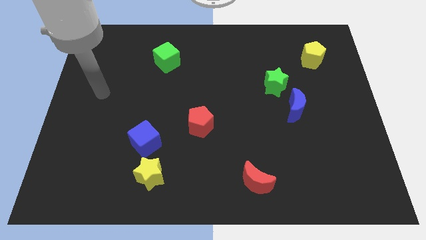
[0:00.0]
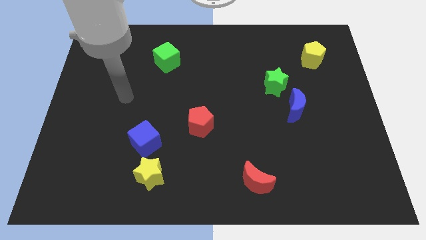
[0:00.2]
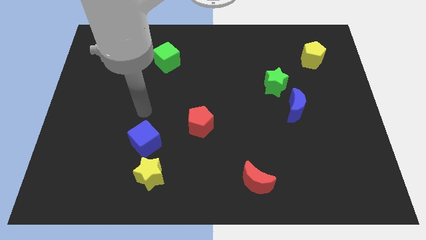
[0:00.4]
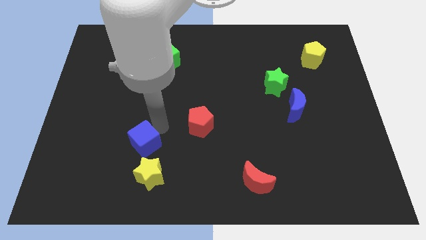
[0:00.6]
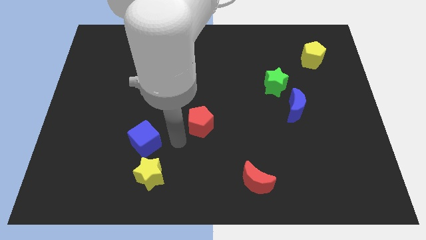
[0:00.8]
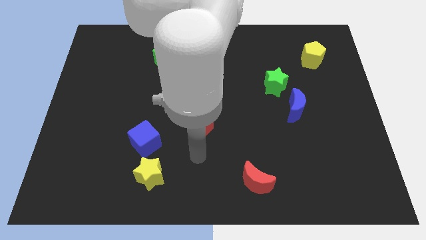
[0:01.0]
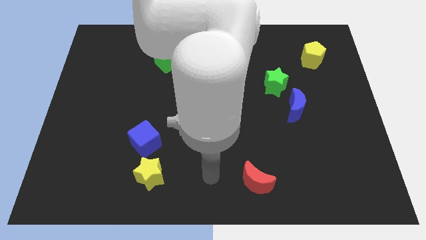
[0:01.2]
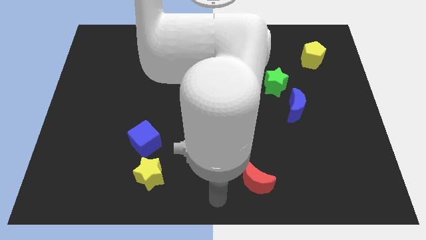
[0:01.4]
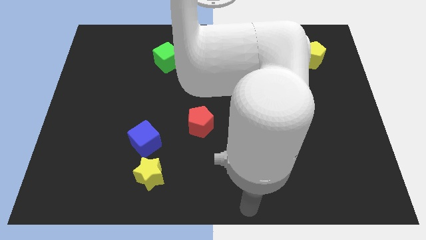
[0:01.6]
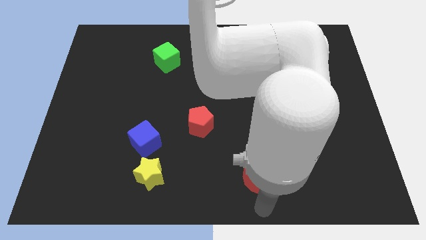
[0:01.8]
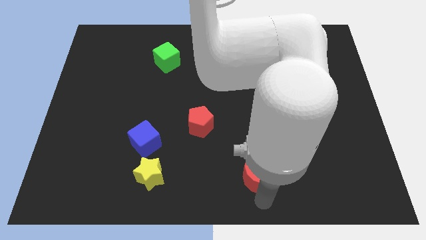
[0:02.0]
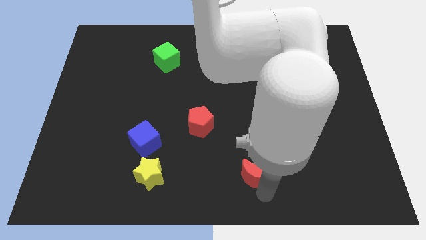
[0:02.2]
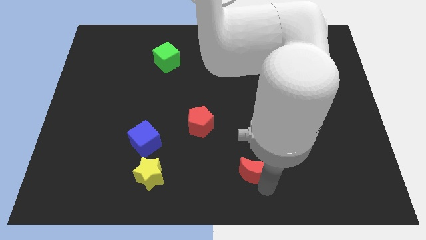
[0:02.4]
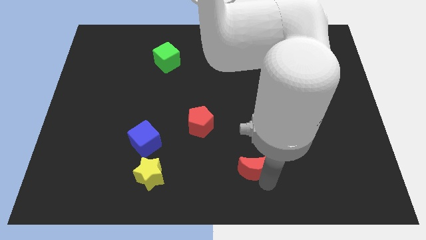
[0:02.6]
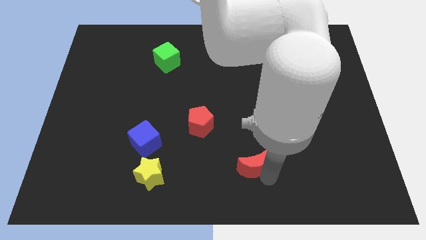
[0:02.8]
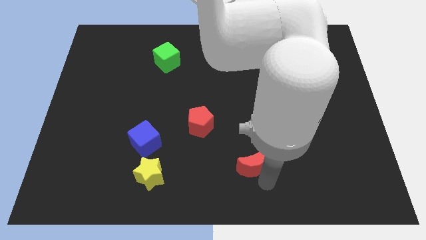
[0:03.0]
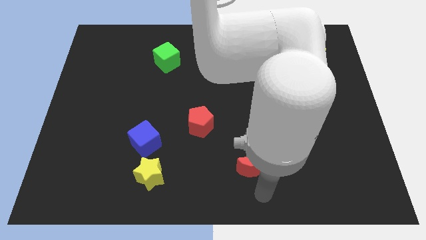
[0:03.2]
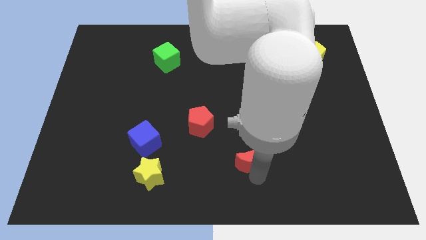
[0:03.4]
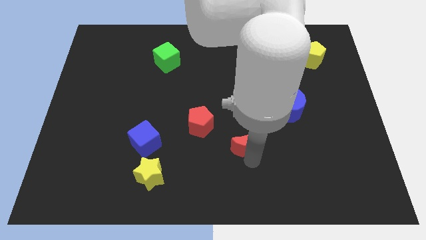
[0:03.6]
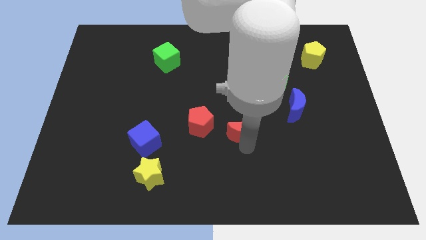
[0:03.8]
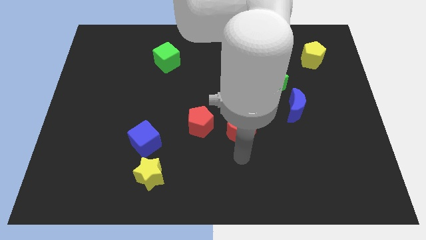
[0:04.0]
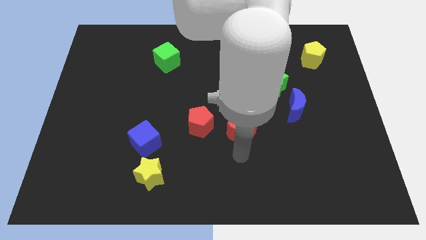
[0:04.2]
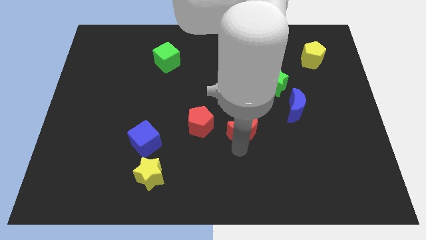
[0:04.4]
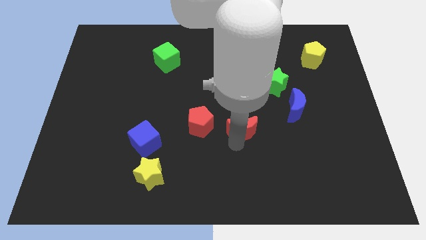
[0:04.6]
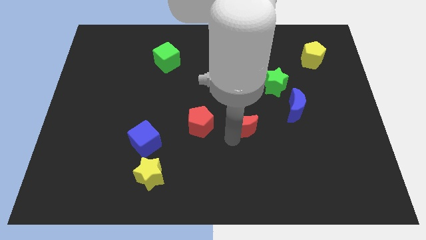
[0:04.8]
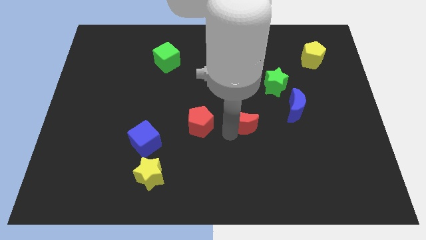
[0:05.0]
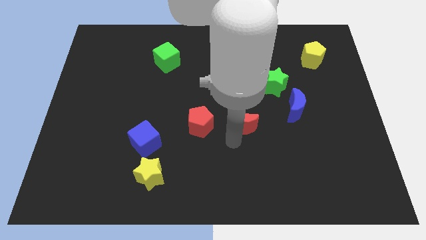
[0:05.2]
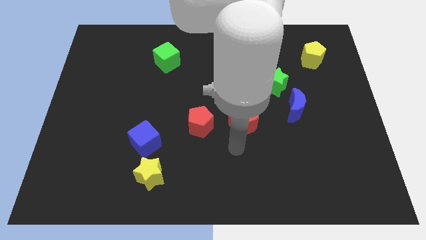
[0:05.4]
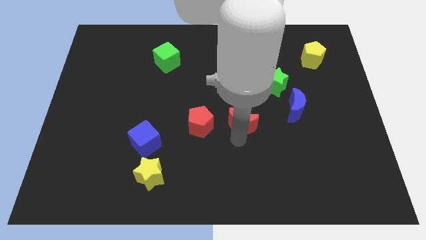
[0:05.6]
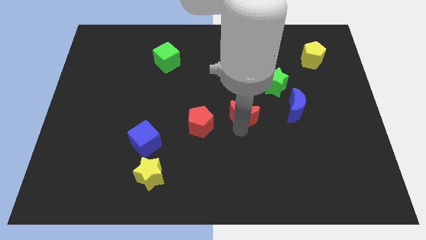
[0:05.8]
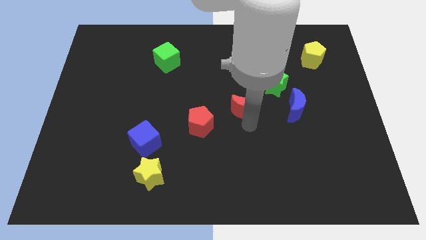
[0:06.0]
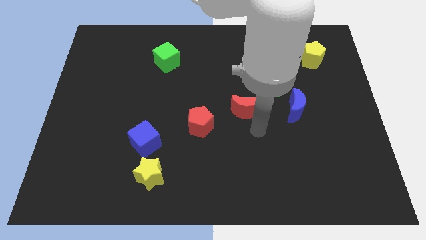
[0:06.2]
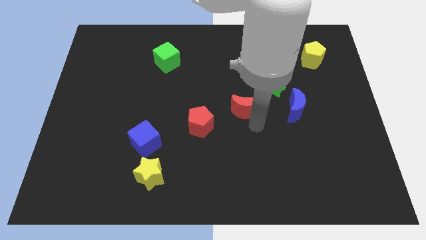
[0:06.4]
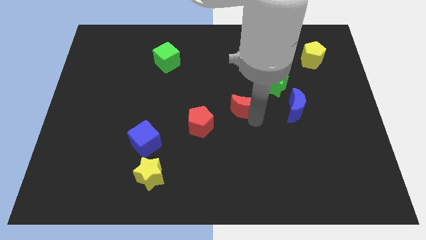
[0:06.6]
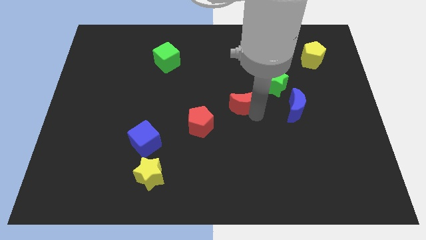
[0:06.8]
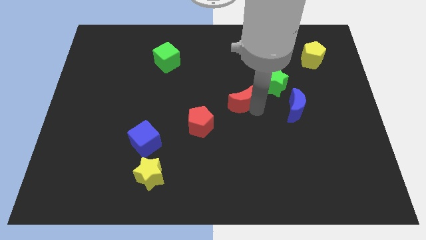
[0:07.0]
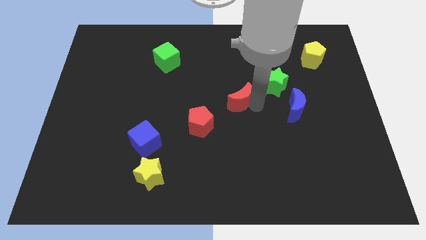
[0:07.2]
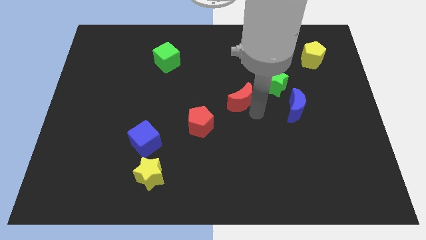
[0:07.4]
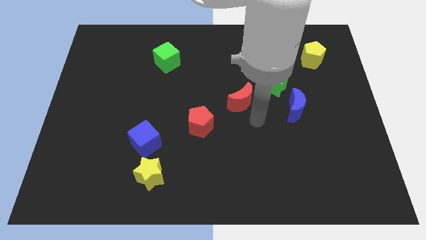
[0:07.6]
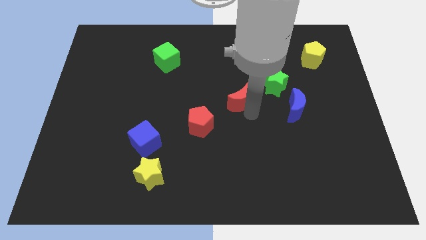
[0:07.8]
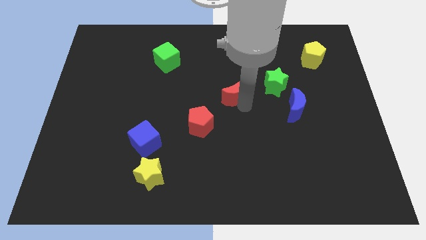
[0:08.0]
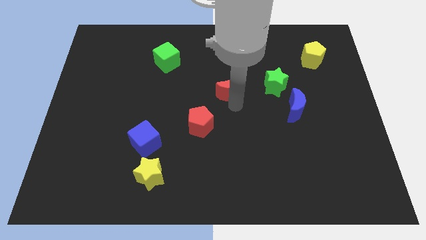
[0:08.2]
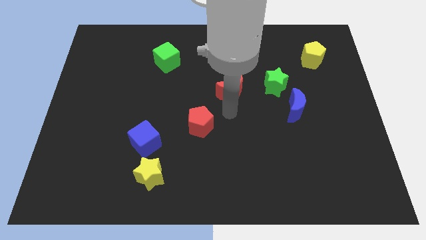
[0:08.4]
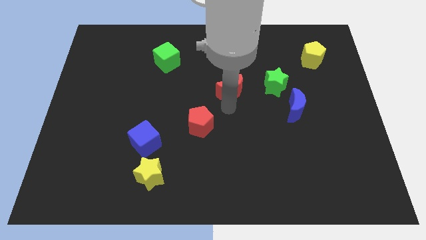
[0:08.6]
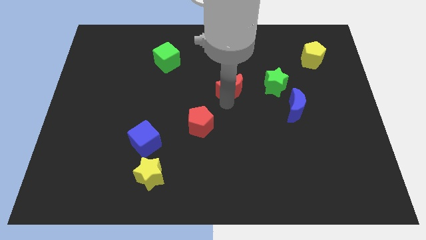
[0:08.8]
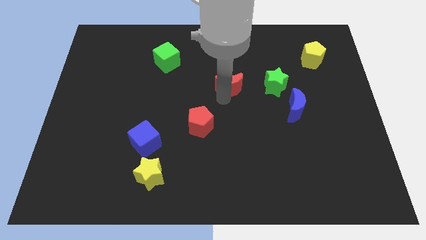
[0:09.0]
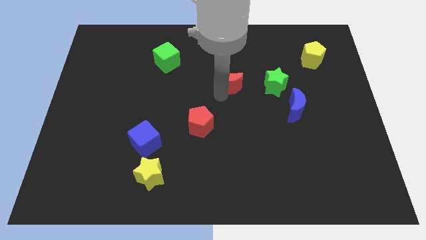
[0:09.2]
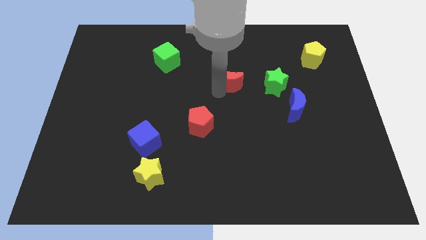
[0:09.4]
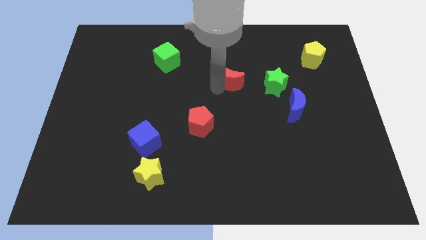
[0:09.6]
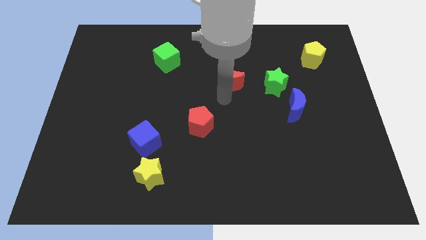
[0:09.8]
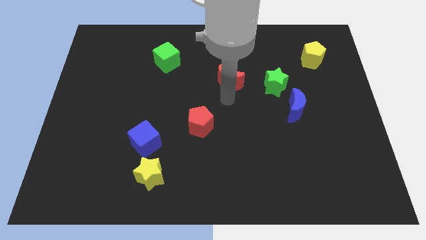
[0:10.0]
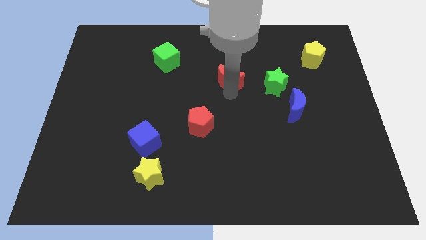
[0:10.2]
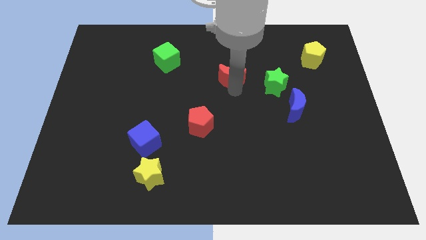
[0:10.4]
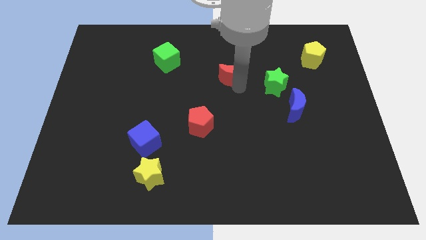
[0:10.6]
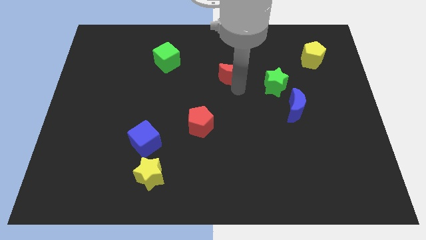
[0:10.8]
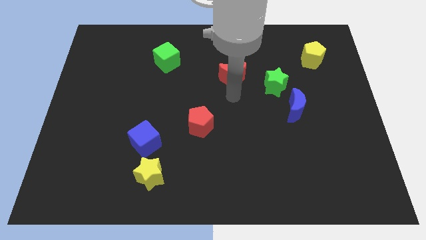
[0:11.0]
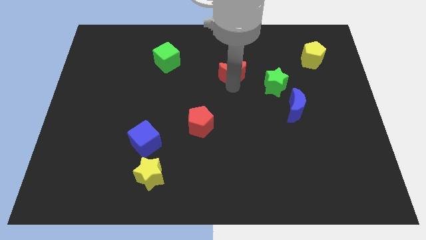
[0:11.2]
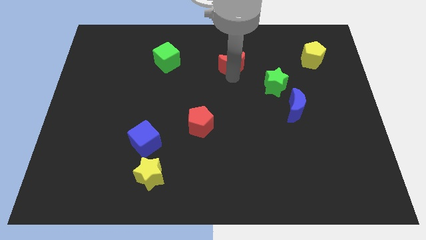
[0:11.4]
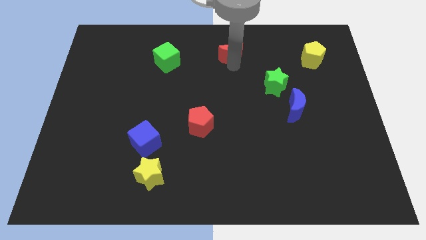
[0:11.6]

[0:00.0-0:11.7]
put the red moon to the towards your base

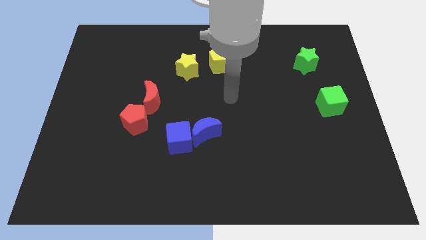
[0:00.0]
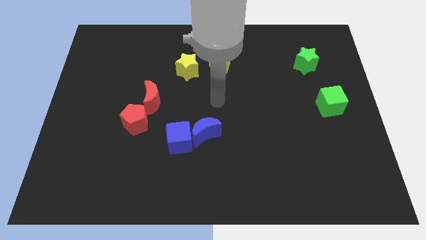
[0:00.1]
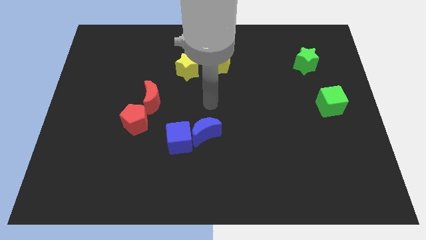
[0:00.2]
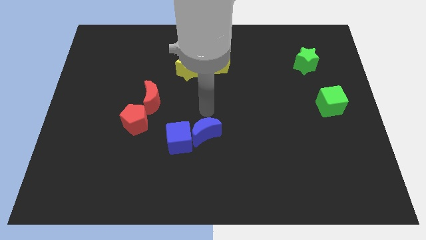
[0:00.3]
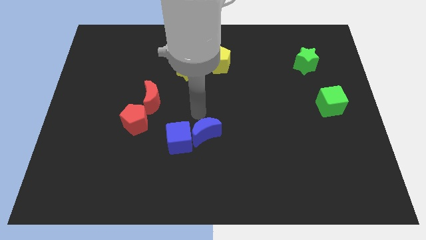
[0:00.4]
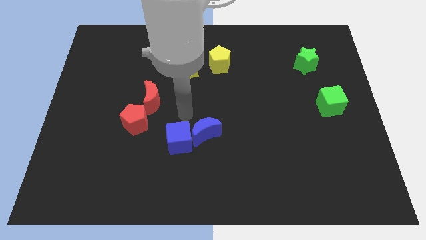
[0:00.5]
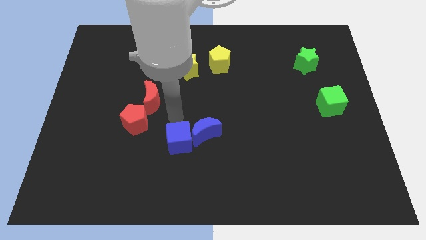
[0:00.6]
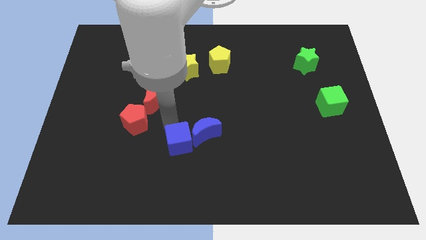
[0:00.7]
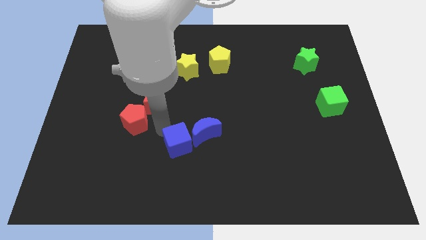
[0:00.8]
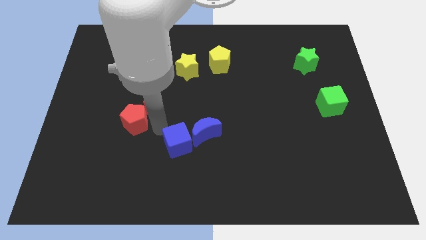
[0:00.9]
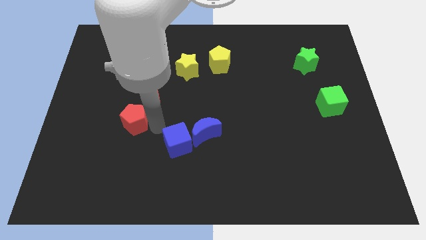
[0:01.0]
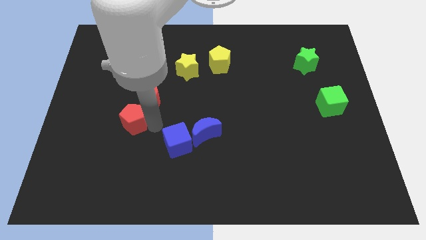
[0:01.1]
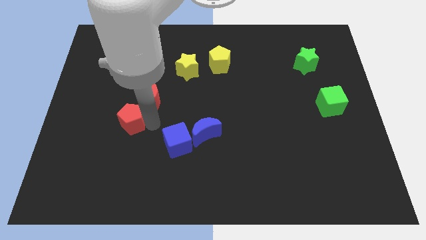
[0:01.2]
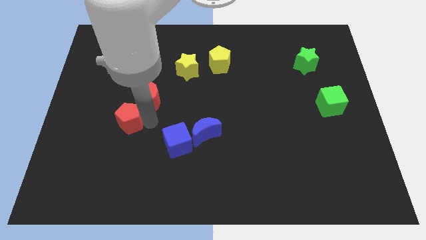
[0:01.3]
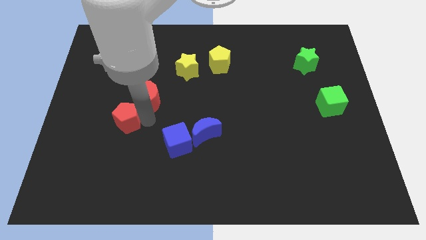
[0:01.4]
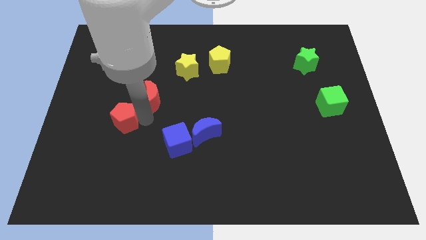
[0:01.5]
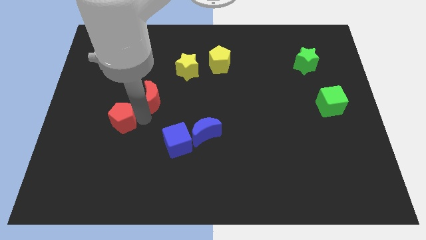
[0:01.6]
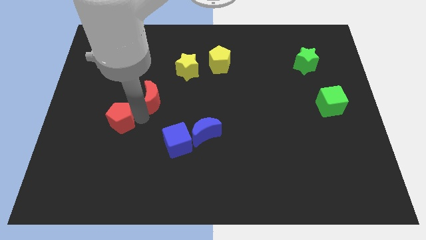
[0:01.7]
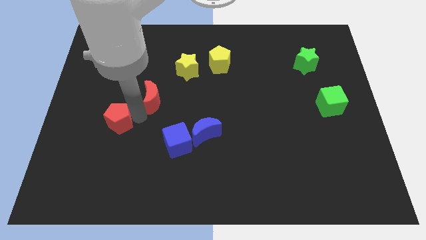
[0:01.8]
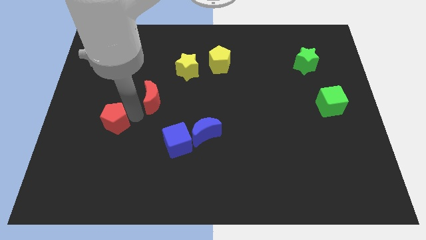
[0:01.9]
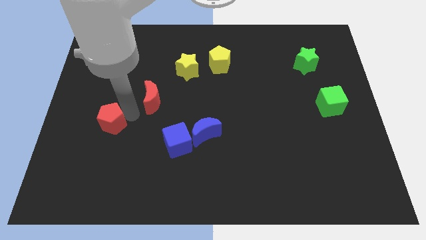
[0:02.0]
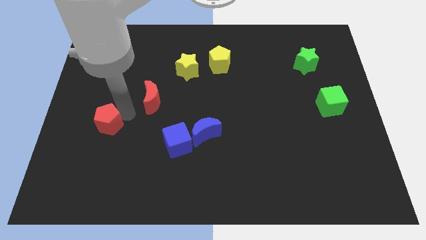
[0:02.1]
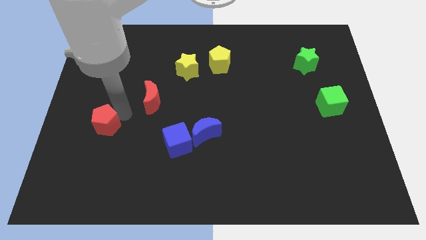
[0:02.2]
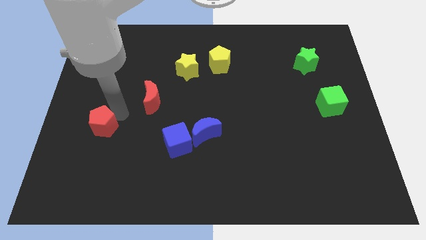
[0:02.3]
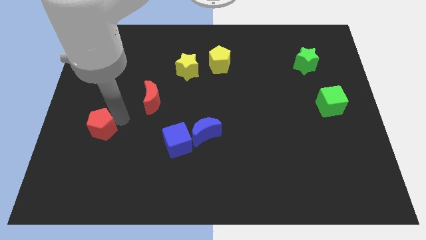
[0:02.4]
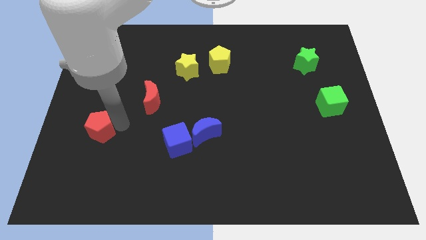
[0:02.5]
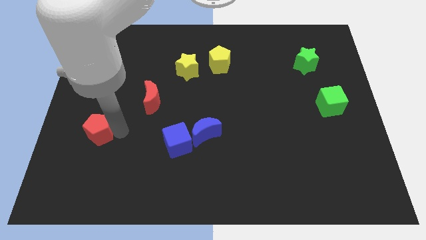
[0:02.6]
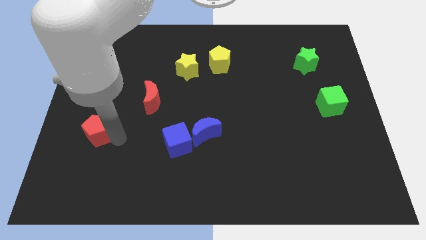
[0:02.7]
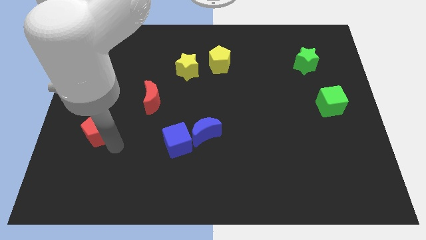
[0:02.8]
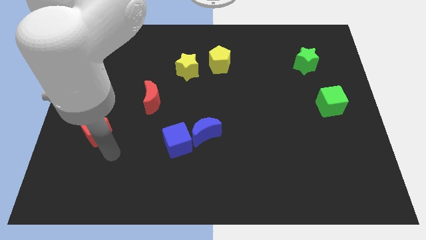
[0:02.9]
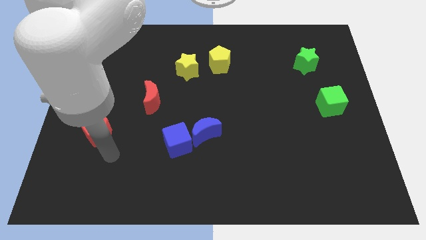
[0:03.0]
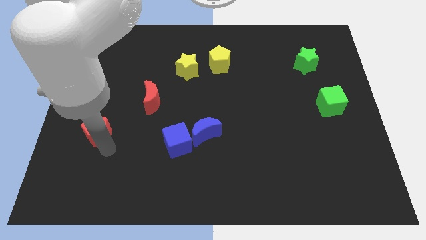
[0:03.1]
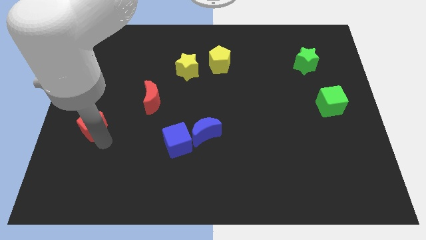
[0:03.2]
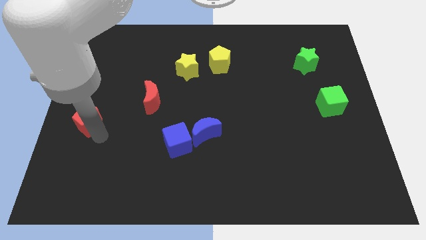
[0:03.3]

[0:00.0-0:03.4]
push the red pentagon to the center left
